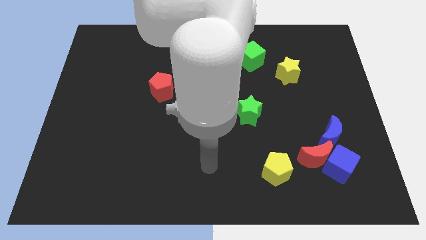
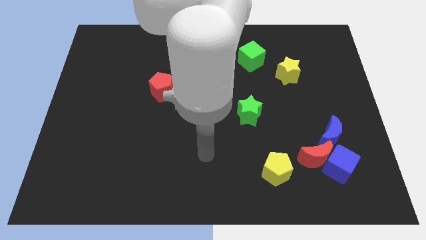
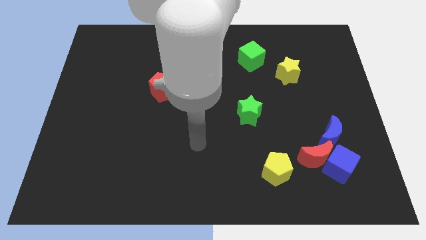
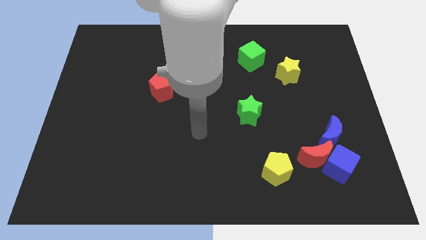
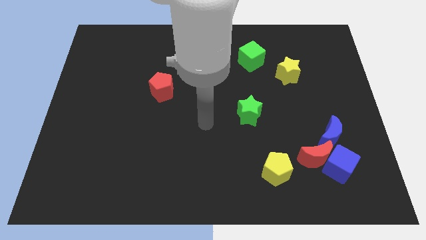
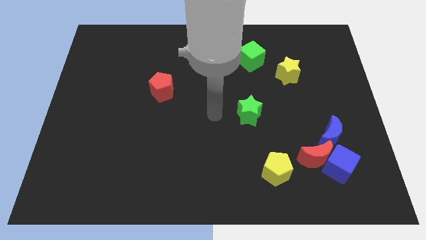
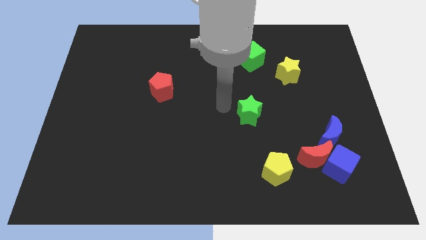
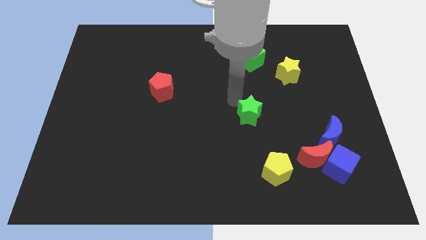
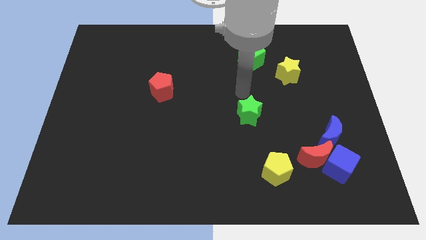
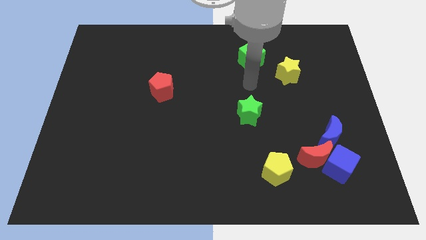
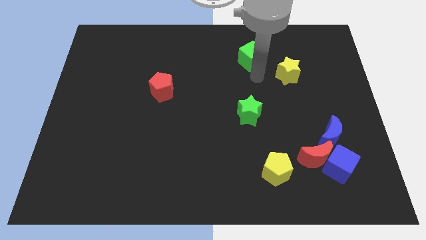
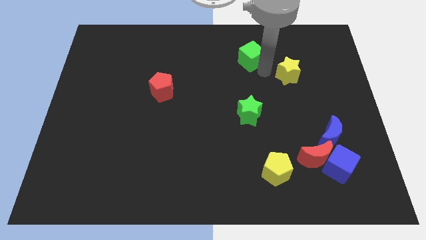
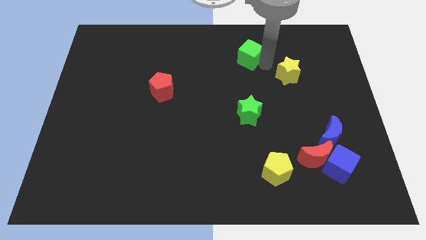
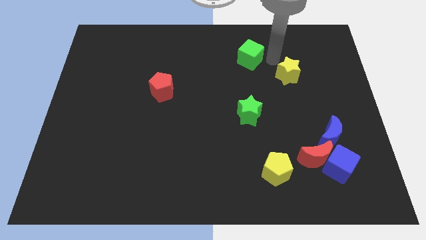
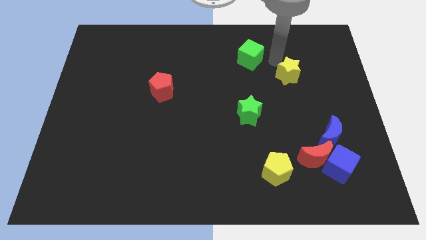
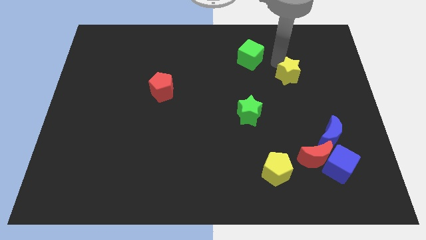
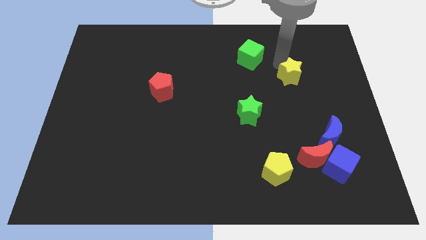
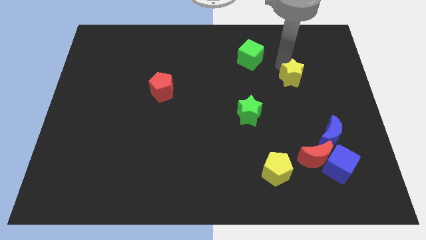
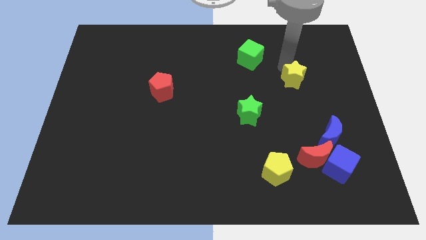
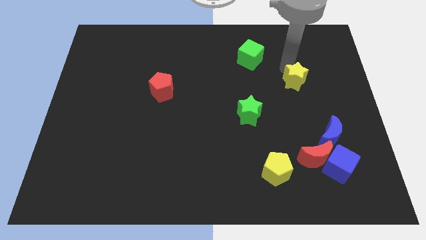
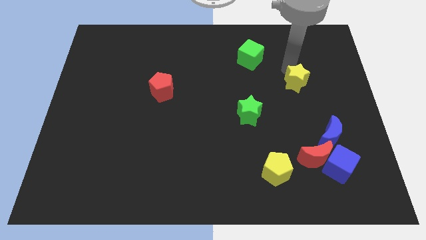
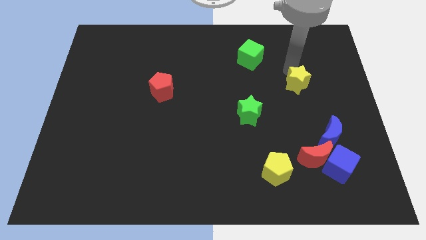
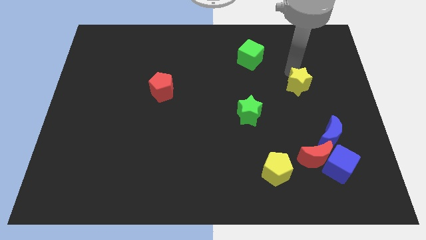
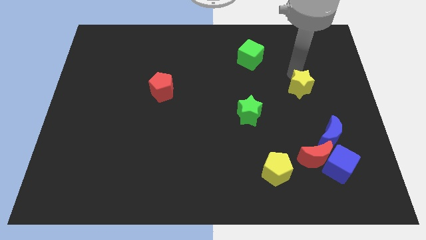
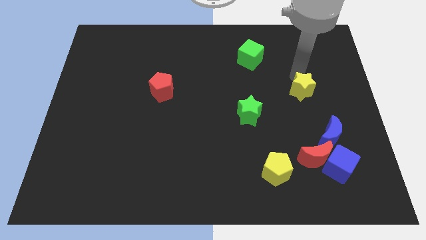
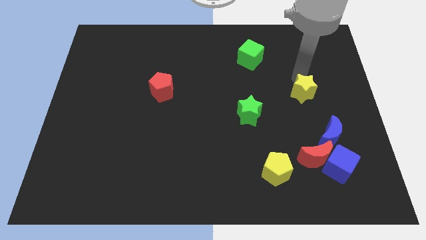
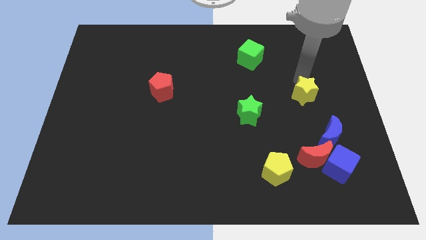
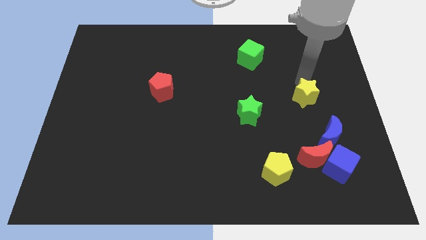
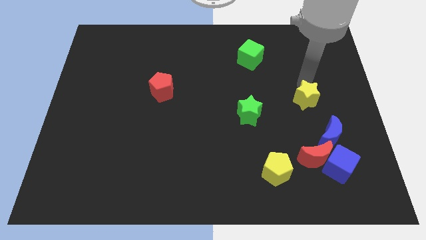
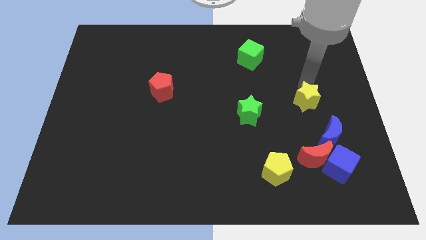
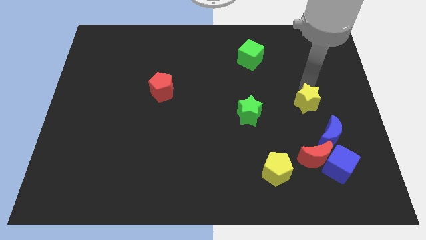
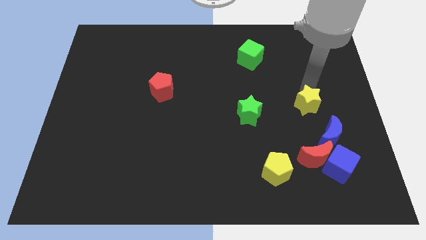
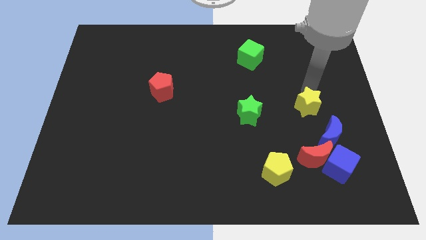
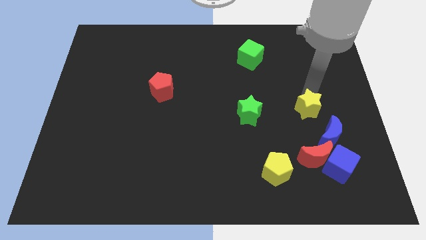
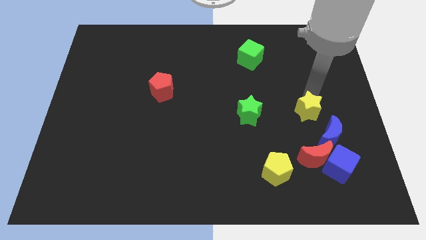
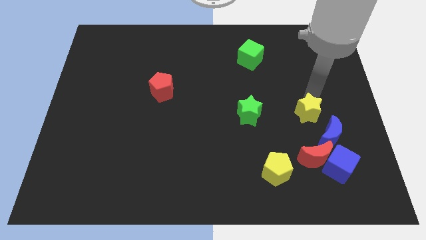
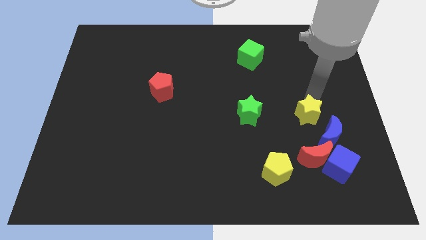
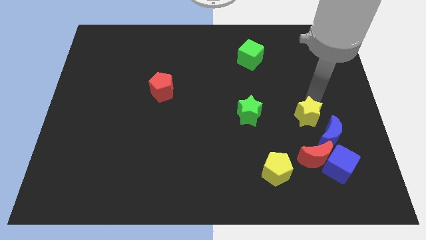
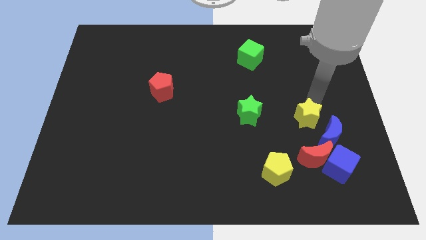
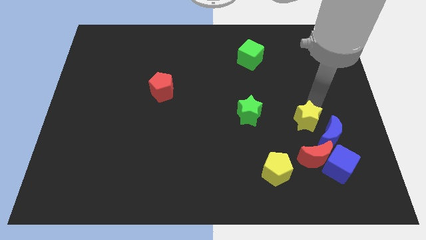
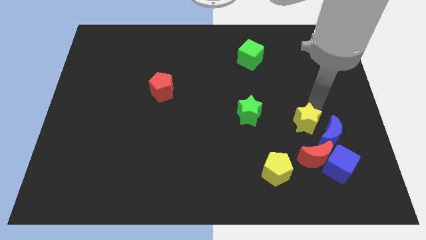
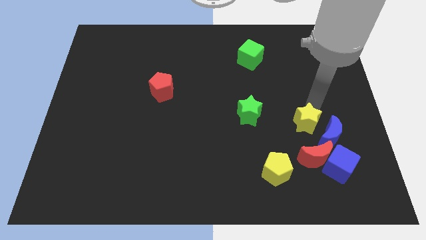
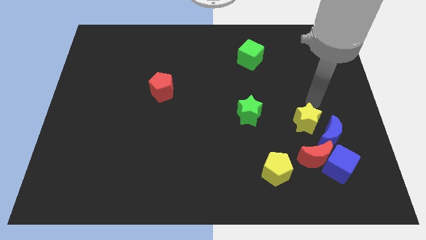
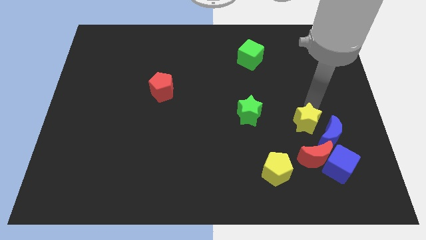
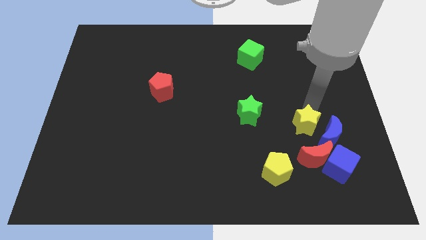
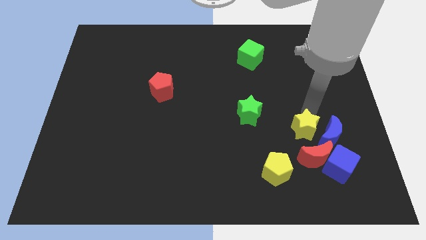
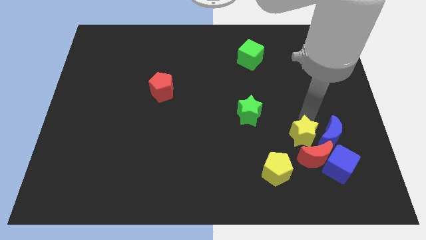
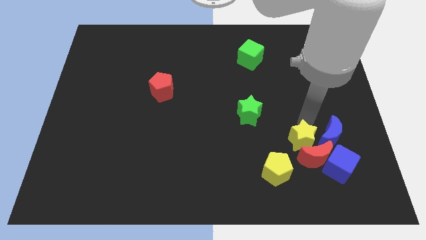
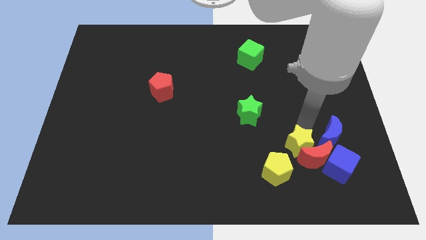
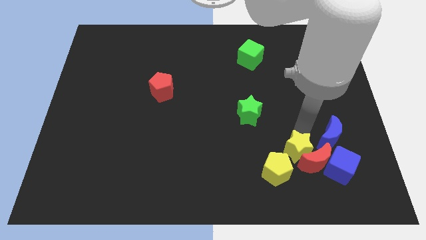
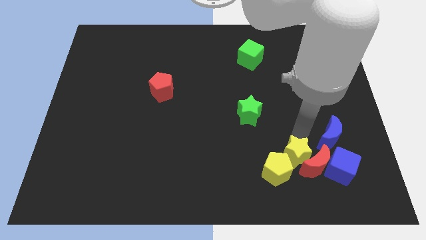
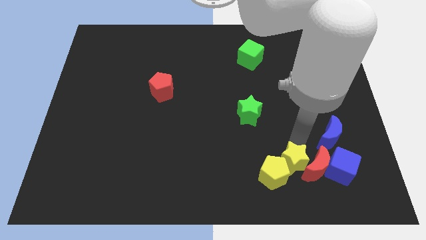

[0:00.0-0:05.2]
push the yellow star to the bottom left side of the red moon

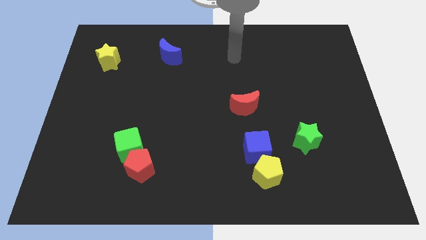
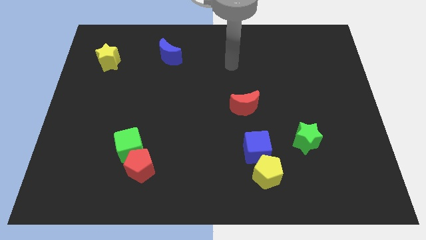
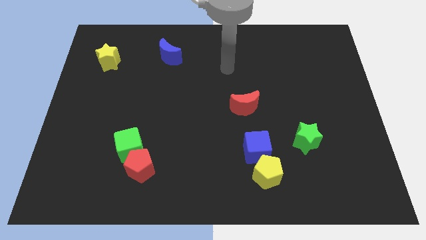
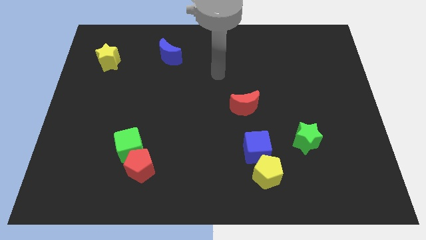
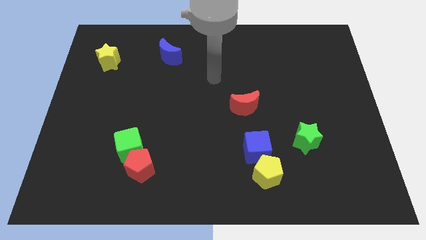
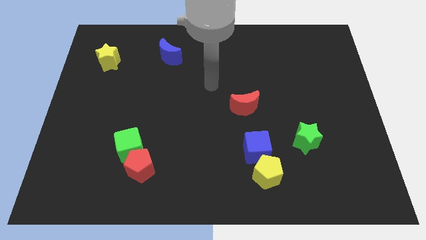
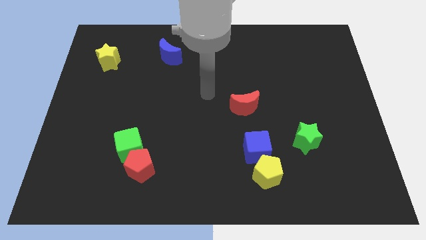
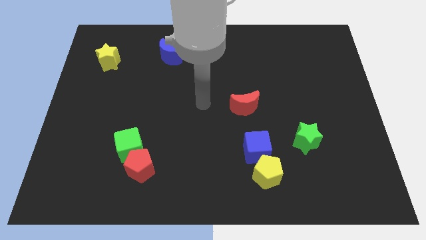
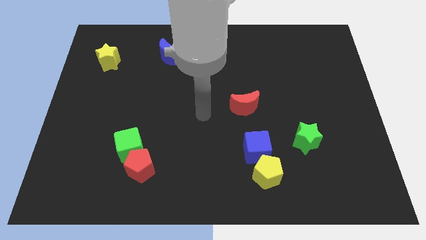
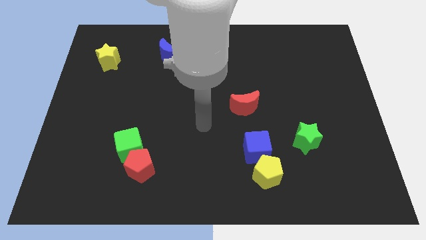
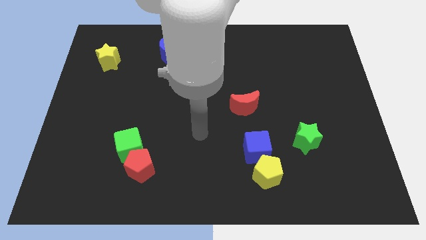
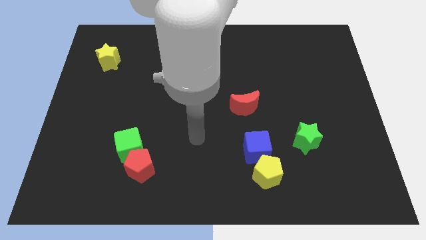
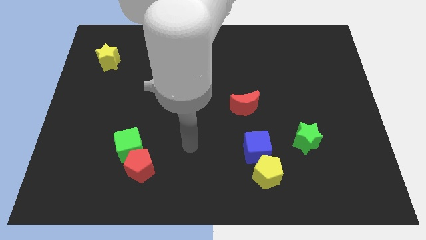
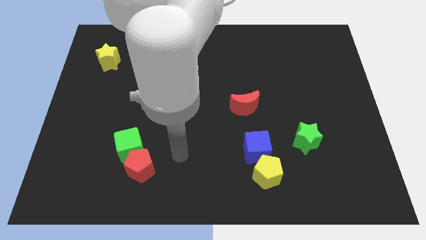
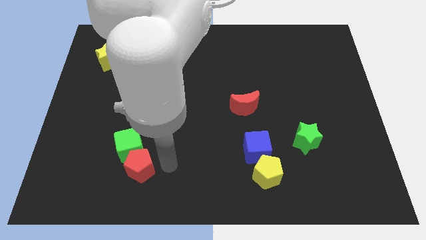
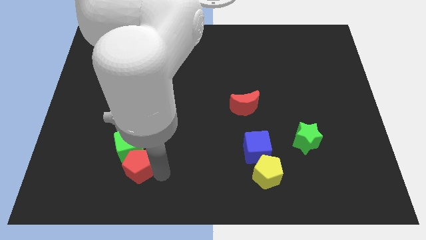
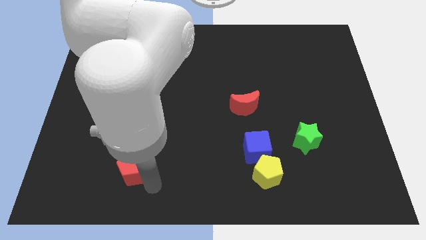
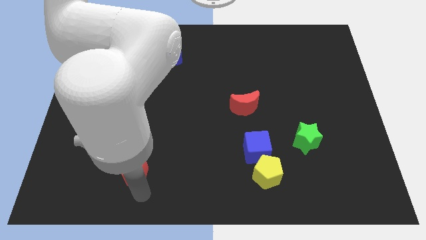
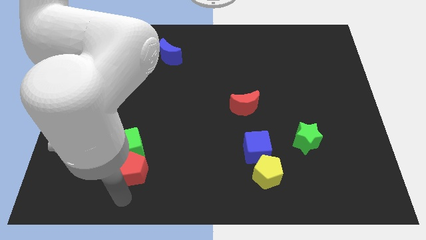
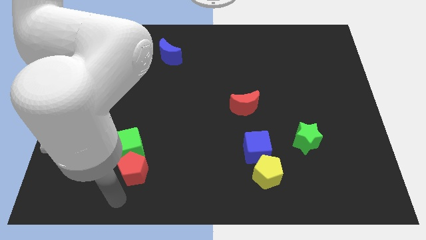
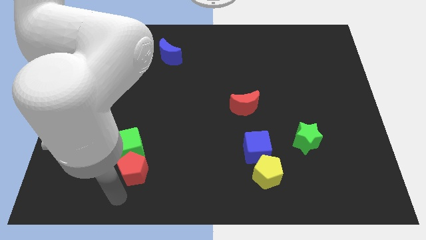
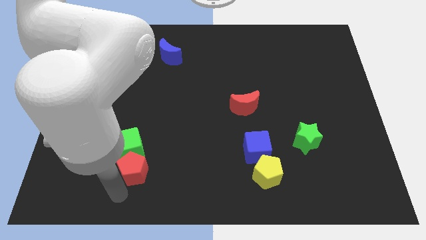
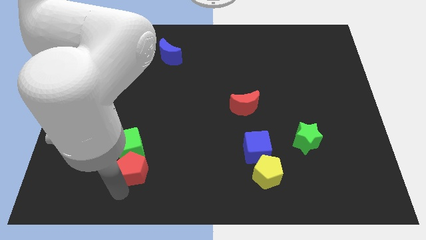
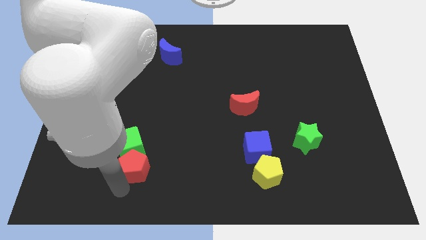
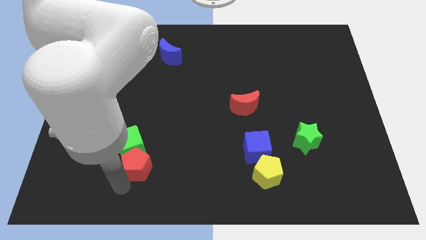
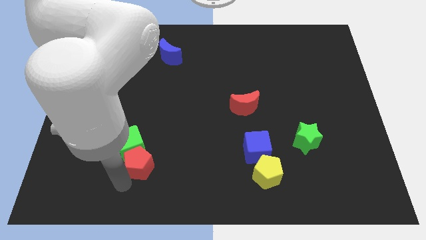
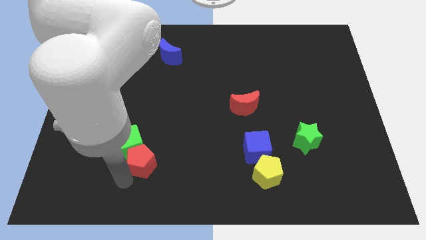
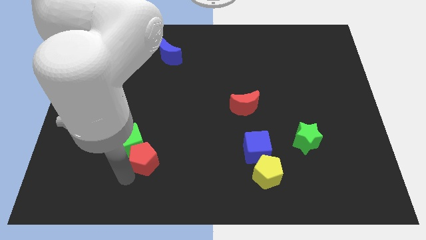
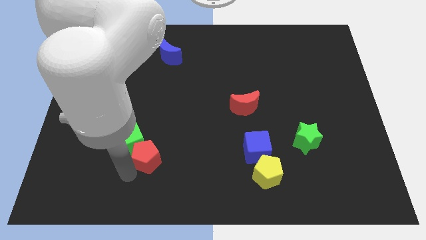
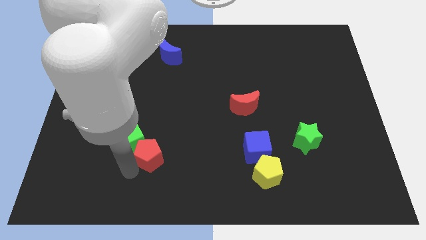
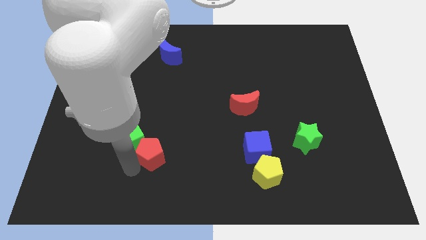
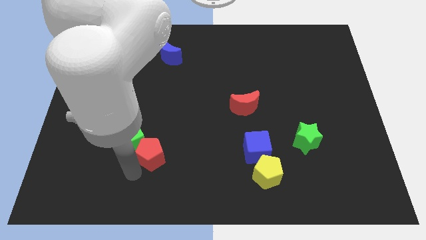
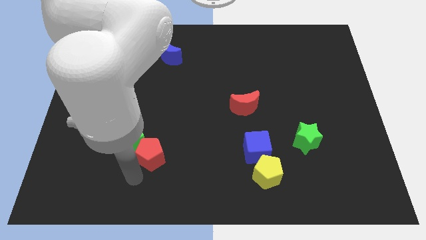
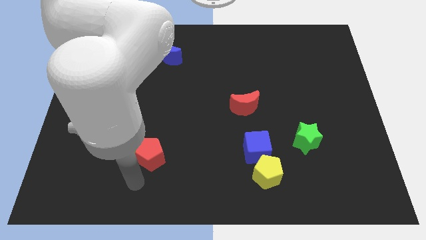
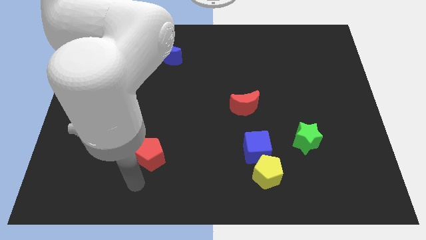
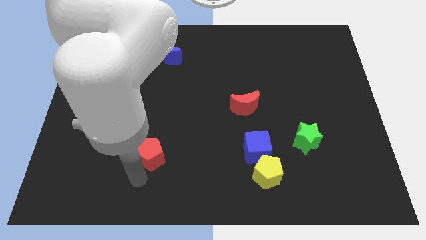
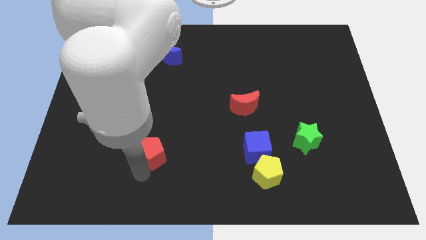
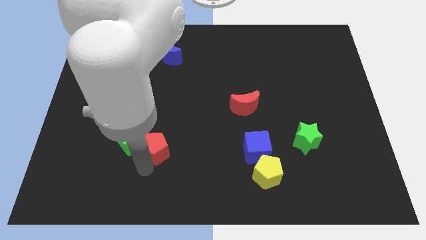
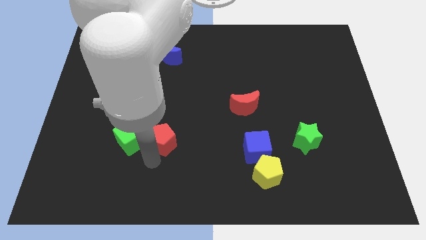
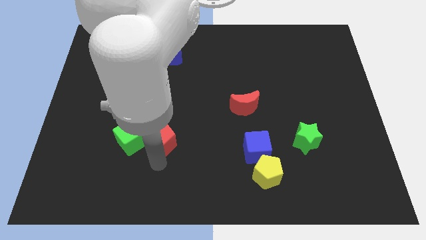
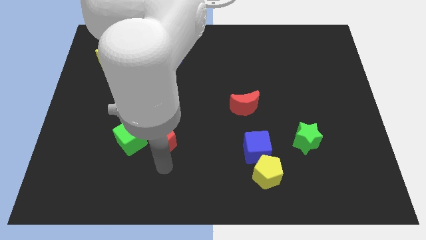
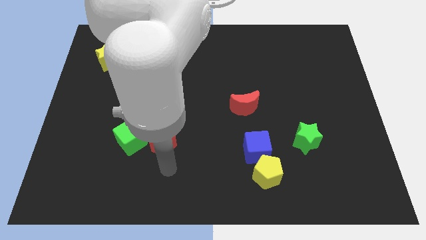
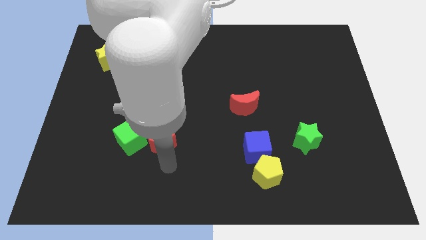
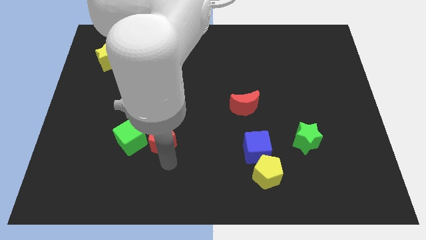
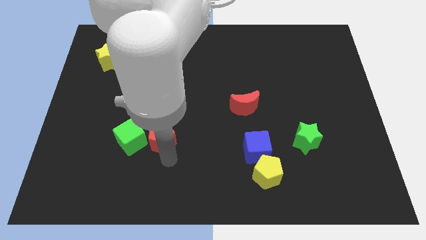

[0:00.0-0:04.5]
push the red pentagon to the top right side of the green cube
